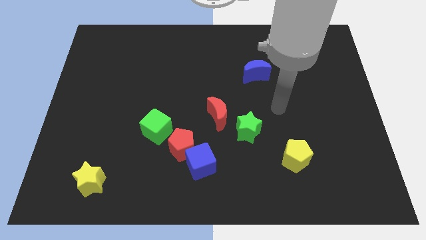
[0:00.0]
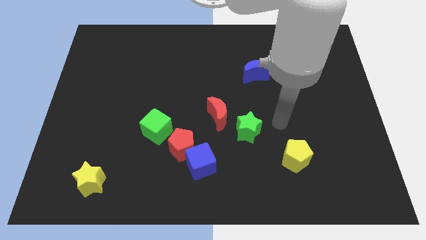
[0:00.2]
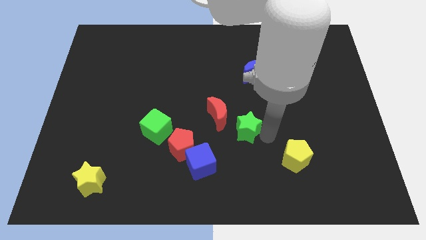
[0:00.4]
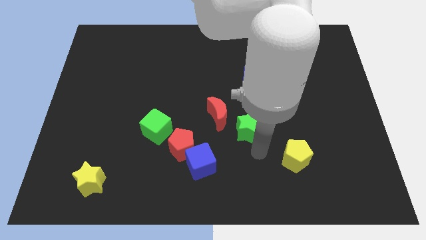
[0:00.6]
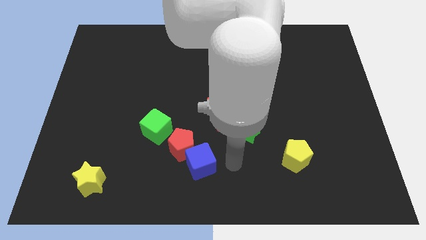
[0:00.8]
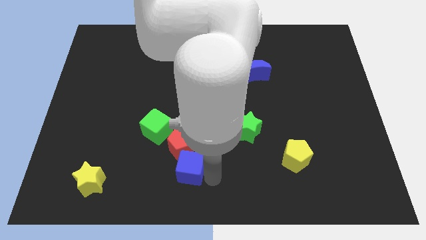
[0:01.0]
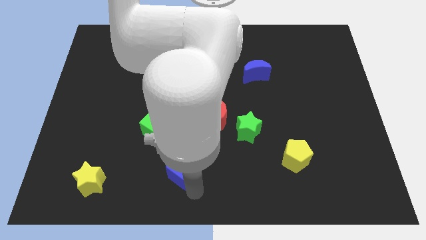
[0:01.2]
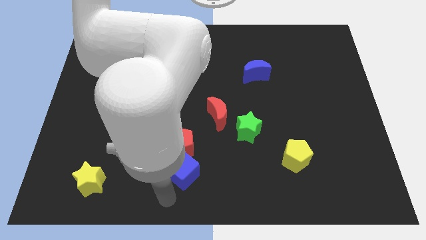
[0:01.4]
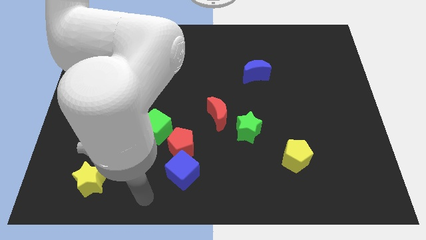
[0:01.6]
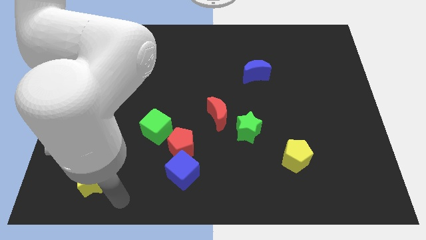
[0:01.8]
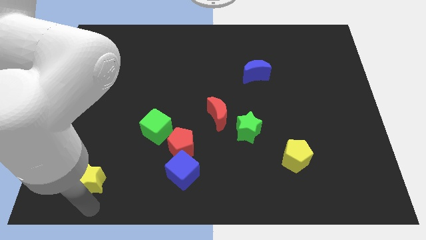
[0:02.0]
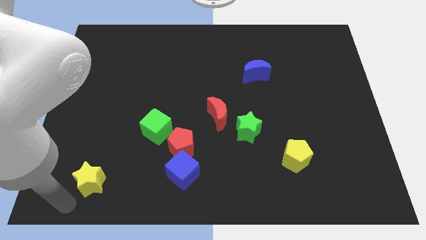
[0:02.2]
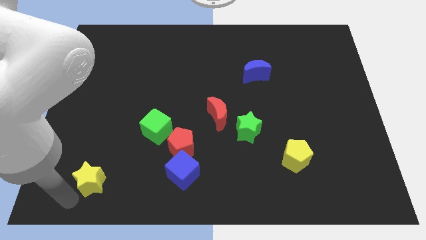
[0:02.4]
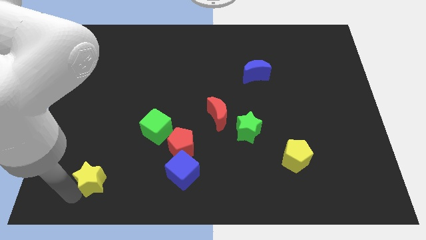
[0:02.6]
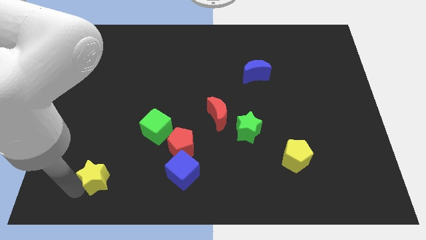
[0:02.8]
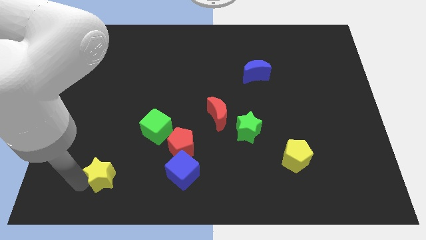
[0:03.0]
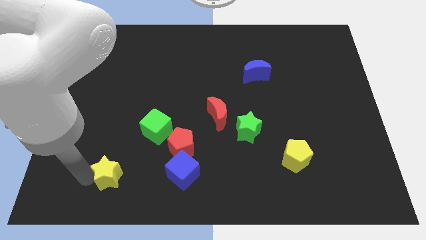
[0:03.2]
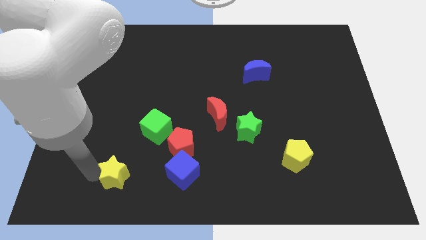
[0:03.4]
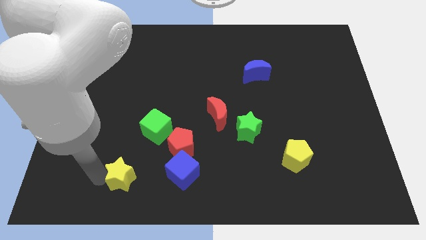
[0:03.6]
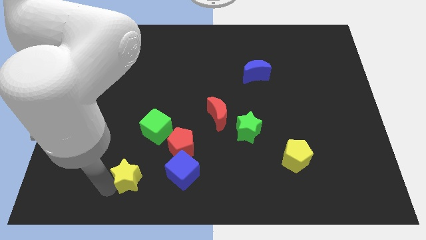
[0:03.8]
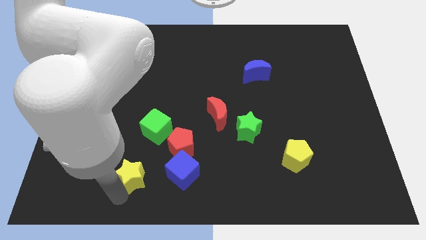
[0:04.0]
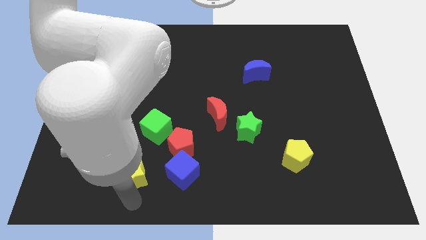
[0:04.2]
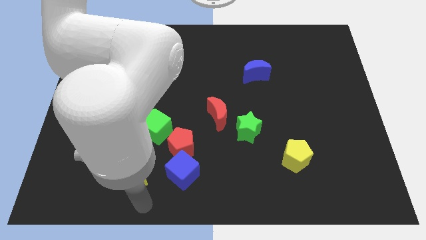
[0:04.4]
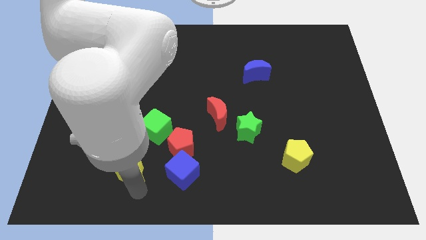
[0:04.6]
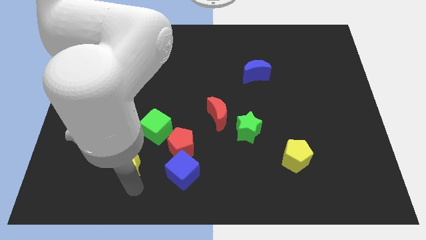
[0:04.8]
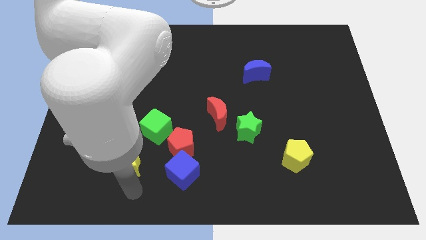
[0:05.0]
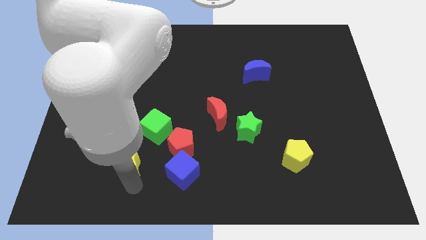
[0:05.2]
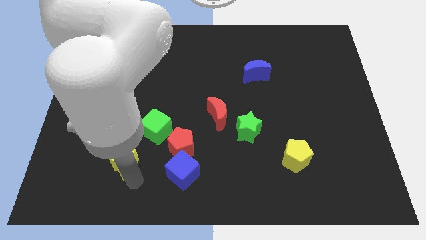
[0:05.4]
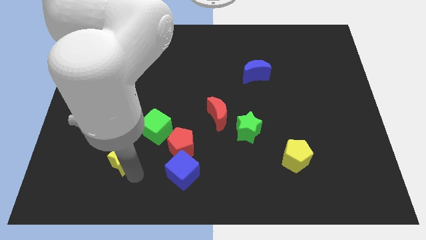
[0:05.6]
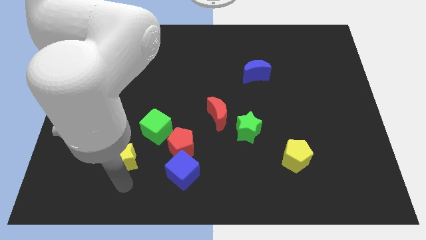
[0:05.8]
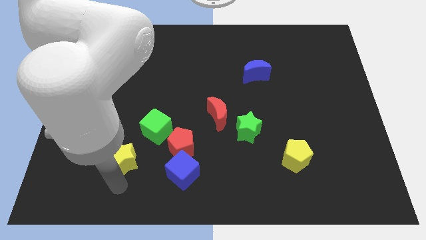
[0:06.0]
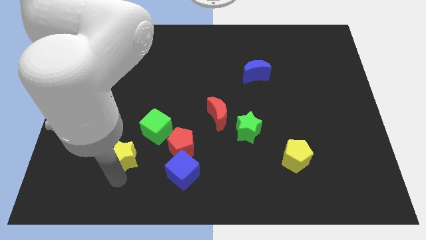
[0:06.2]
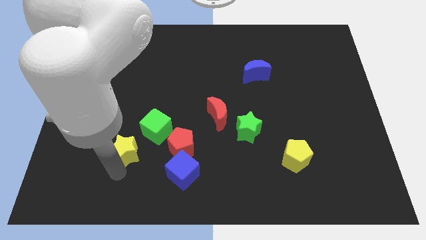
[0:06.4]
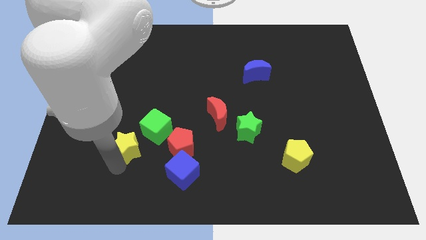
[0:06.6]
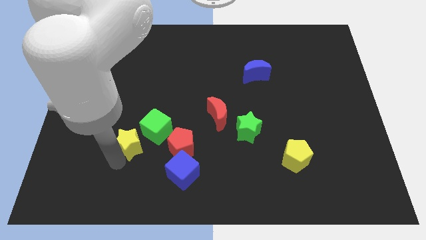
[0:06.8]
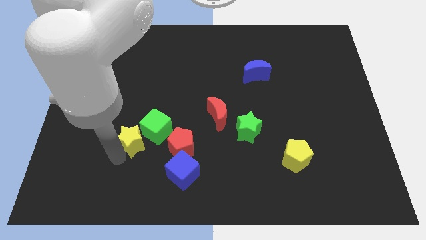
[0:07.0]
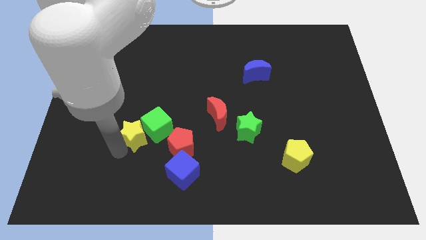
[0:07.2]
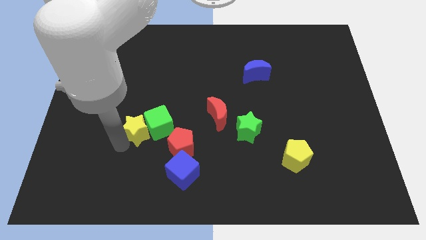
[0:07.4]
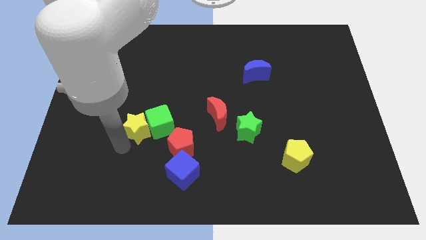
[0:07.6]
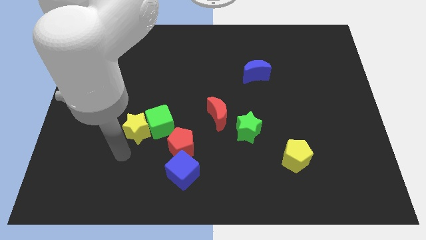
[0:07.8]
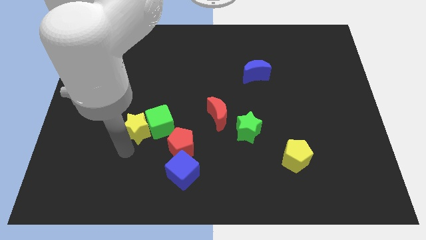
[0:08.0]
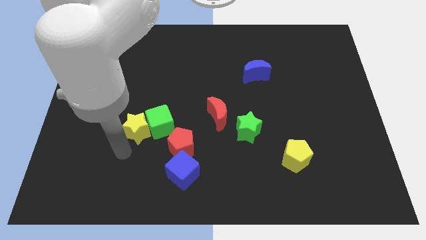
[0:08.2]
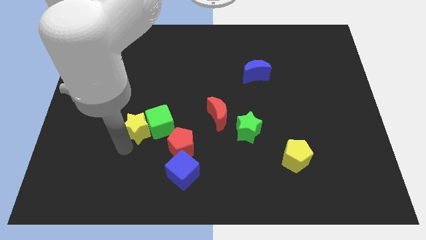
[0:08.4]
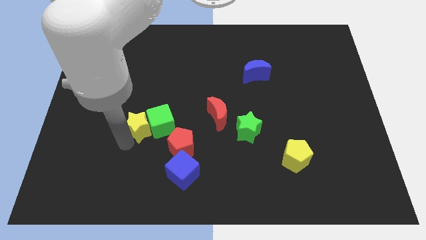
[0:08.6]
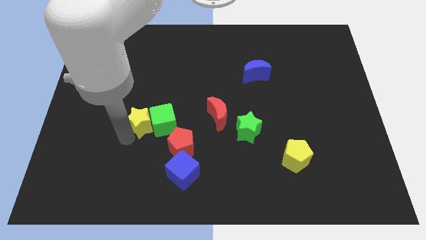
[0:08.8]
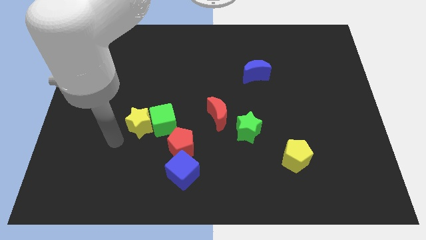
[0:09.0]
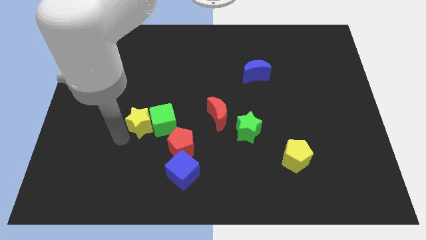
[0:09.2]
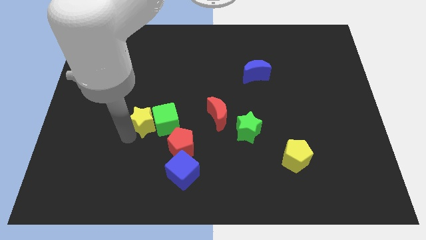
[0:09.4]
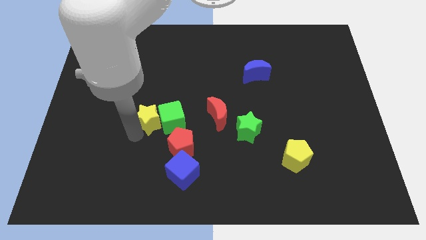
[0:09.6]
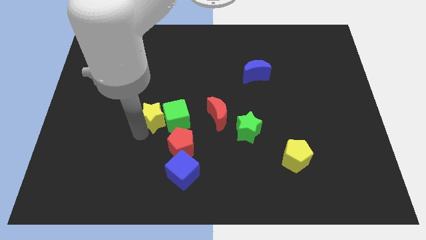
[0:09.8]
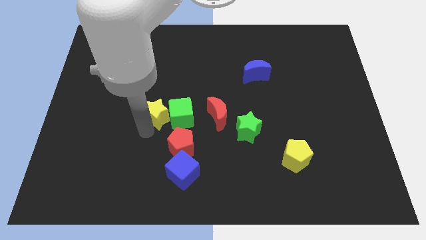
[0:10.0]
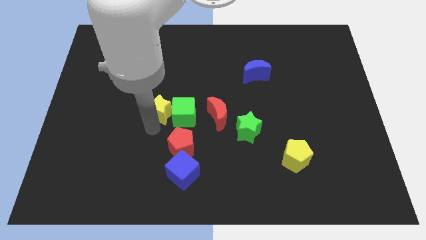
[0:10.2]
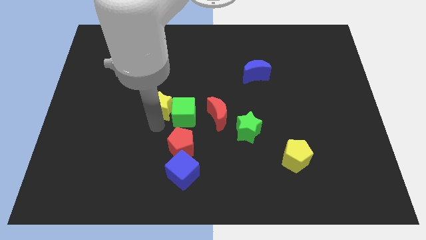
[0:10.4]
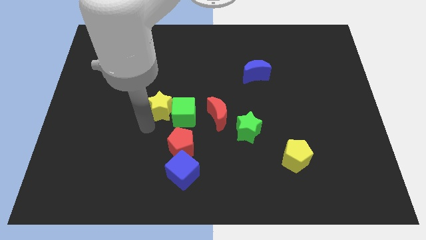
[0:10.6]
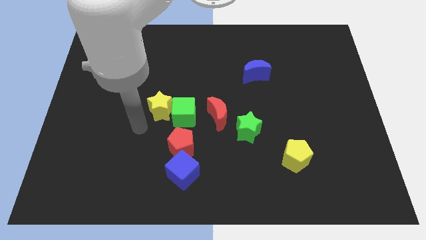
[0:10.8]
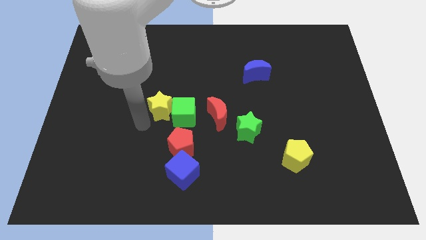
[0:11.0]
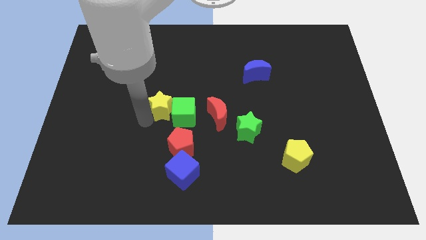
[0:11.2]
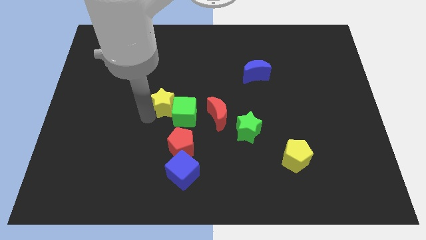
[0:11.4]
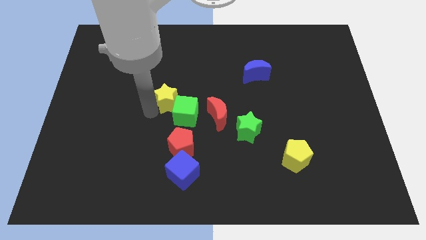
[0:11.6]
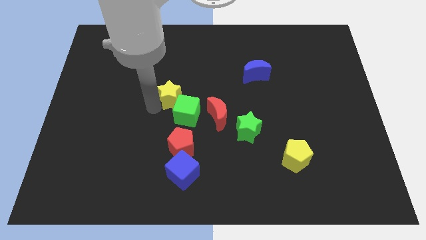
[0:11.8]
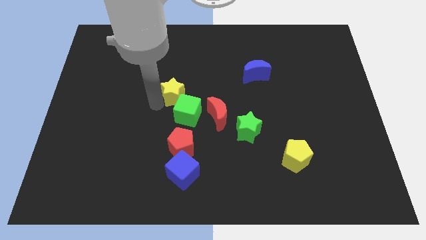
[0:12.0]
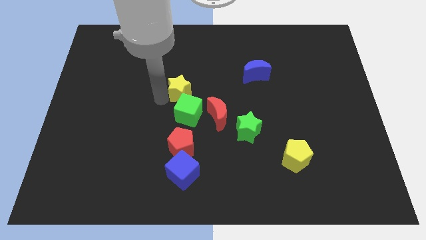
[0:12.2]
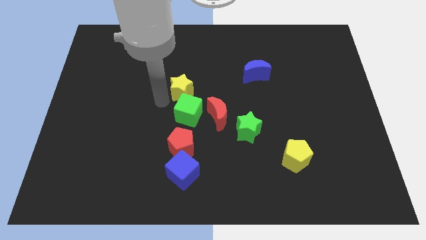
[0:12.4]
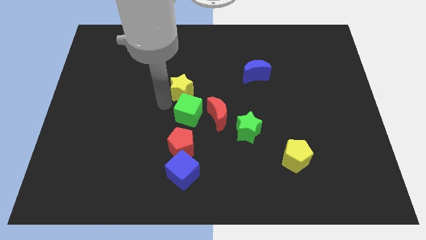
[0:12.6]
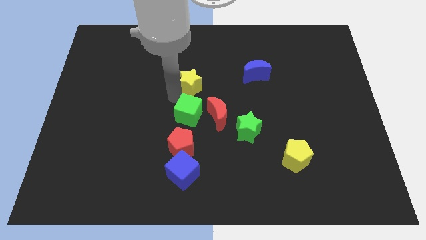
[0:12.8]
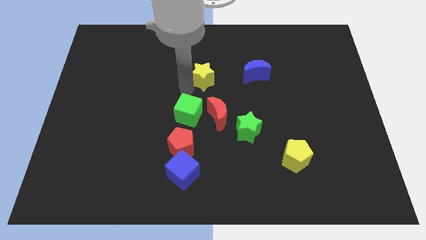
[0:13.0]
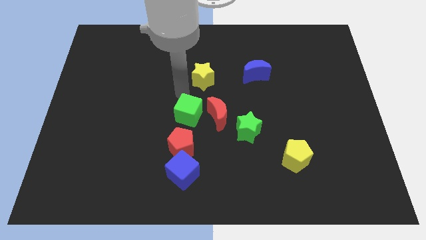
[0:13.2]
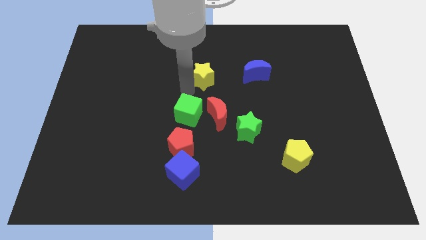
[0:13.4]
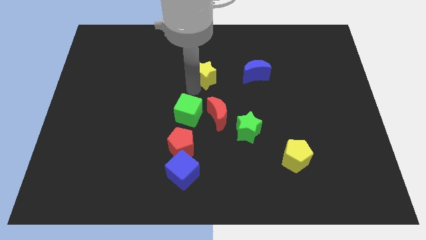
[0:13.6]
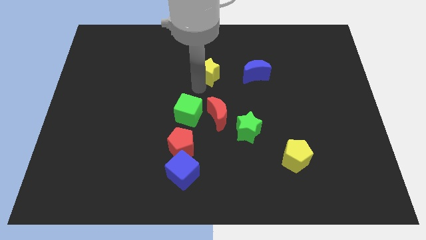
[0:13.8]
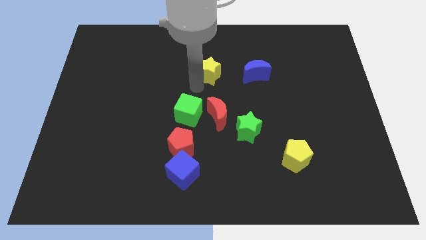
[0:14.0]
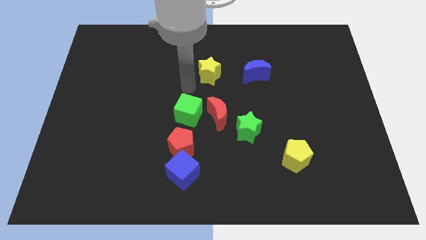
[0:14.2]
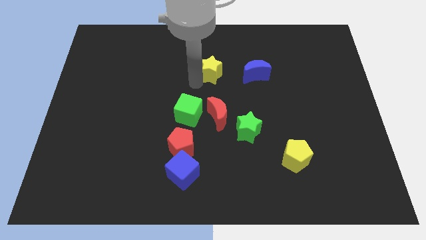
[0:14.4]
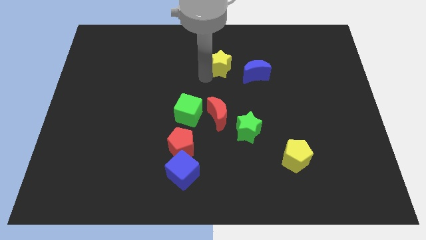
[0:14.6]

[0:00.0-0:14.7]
push the yellow star to the top left of the blue moon

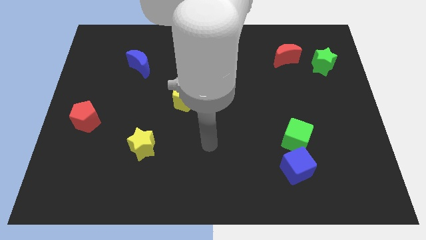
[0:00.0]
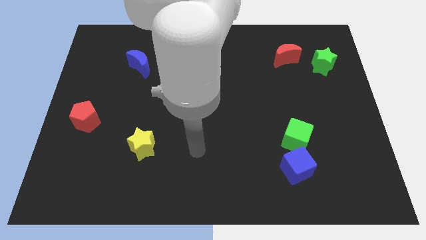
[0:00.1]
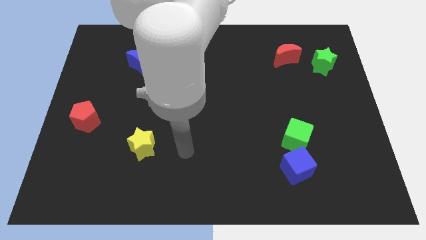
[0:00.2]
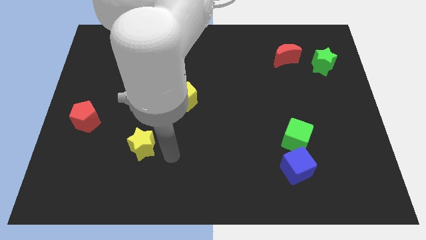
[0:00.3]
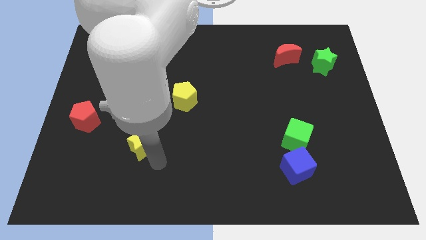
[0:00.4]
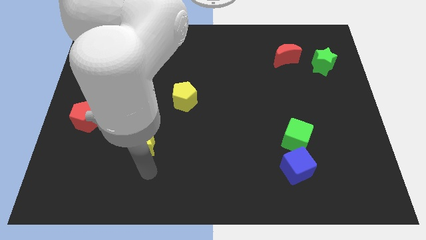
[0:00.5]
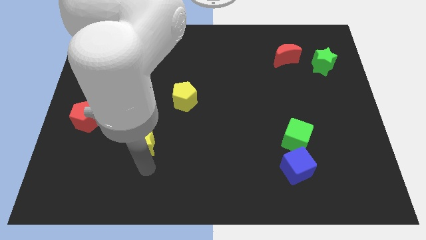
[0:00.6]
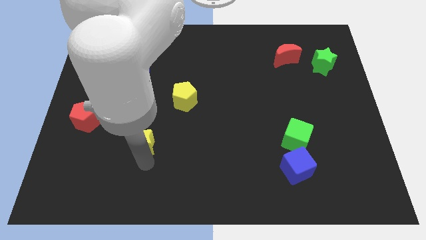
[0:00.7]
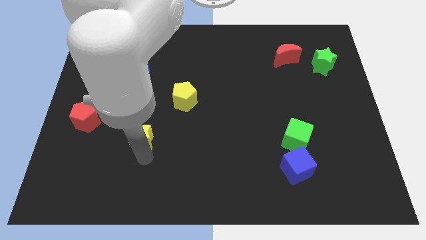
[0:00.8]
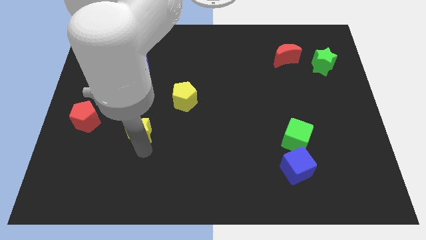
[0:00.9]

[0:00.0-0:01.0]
move the yellow star to the right side of the red pentagon
